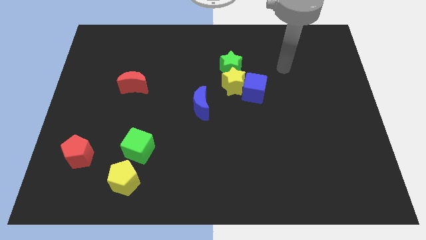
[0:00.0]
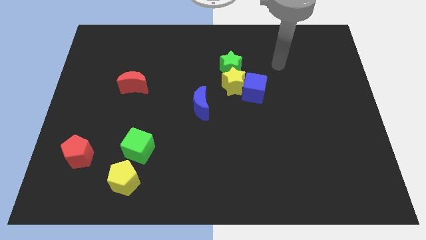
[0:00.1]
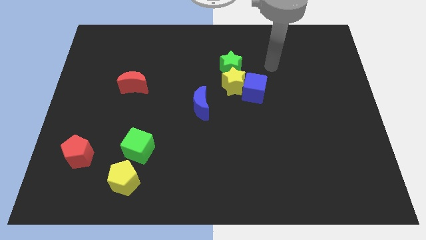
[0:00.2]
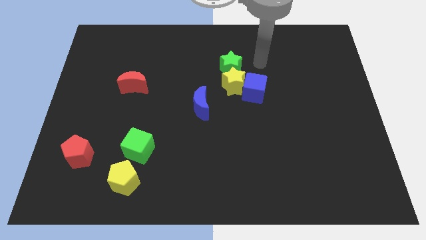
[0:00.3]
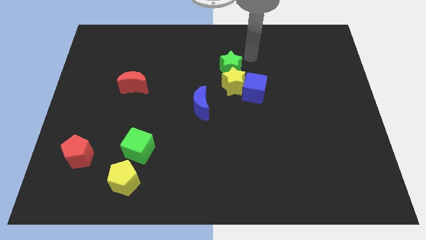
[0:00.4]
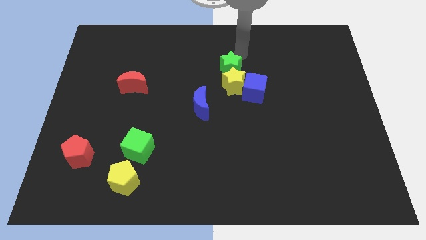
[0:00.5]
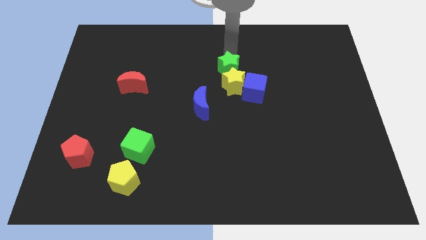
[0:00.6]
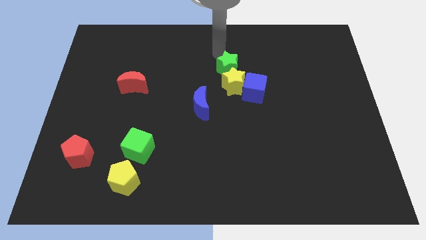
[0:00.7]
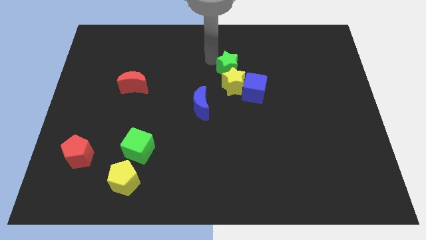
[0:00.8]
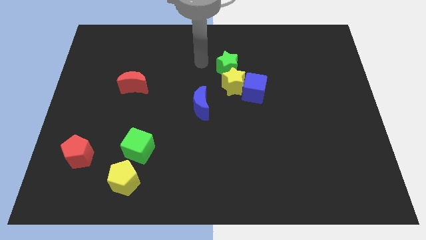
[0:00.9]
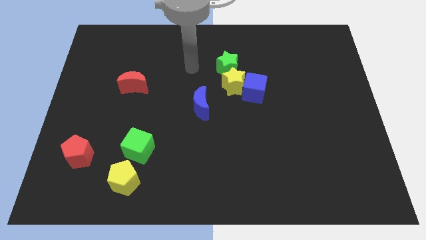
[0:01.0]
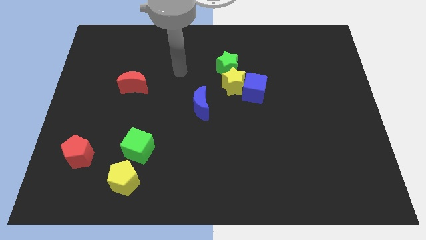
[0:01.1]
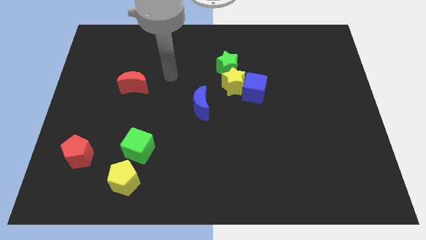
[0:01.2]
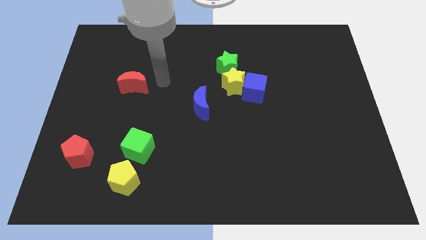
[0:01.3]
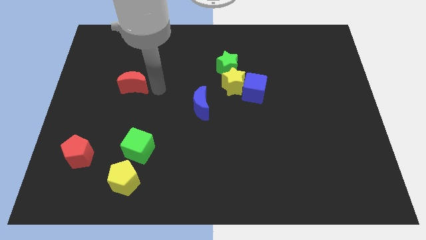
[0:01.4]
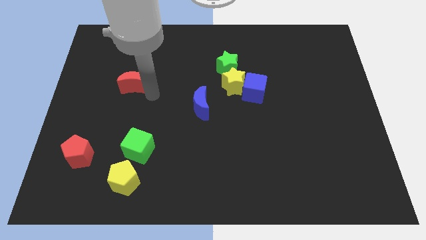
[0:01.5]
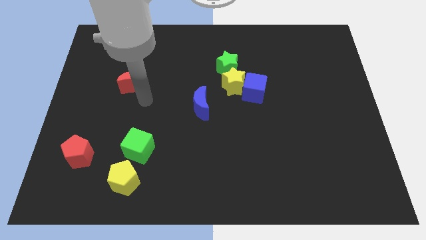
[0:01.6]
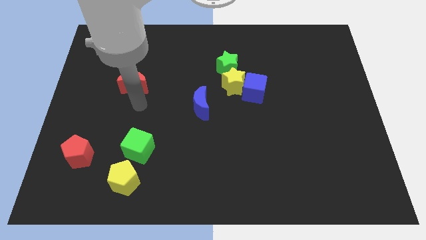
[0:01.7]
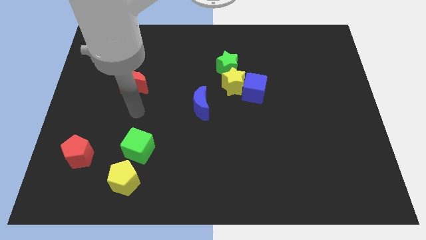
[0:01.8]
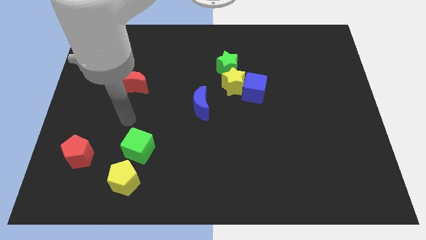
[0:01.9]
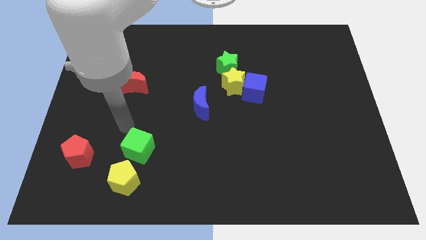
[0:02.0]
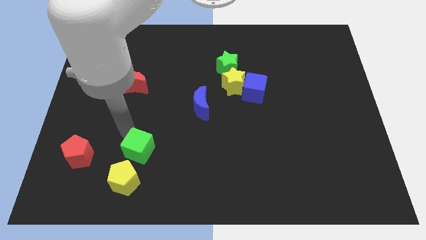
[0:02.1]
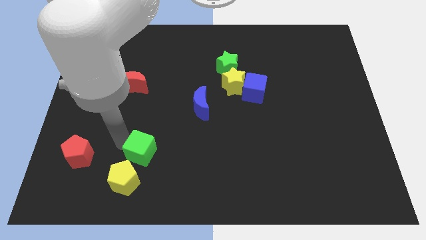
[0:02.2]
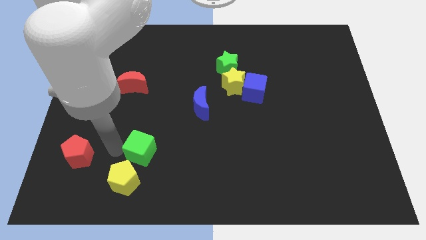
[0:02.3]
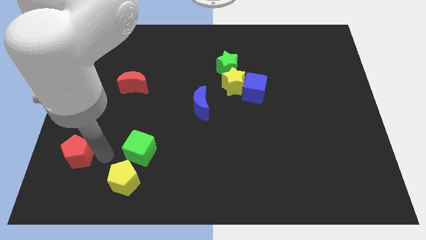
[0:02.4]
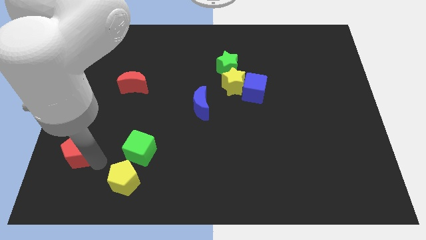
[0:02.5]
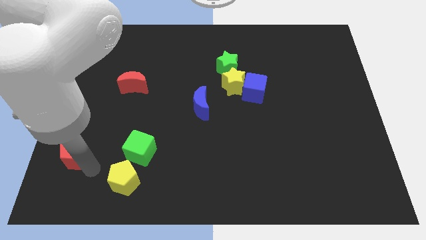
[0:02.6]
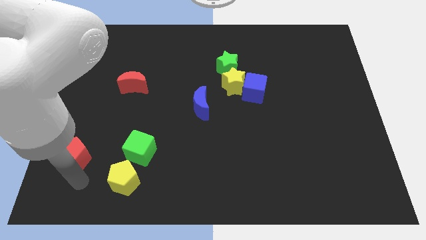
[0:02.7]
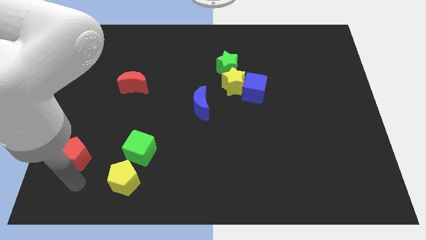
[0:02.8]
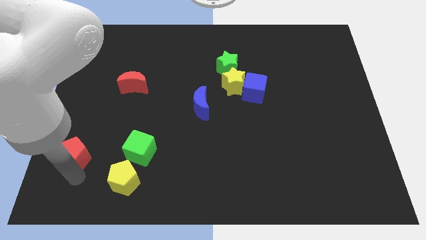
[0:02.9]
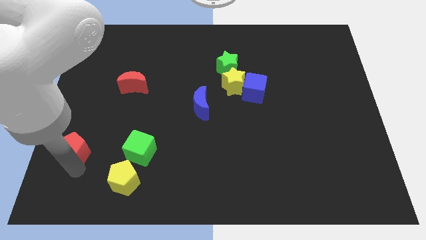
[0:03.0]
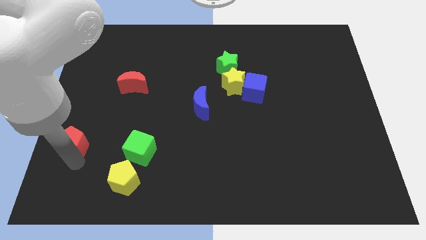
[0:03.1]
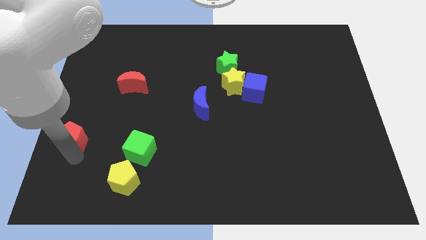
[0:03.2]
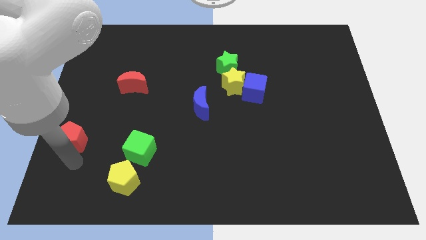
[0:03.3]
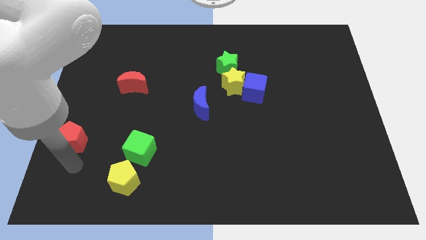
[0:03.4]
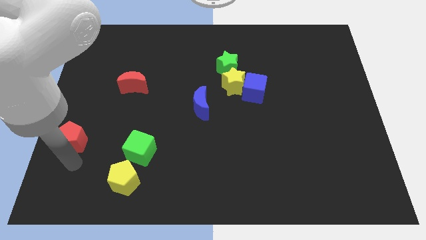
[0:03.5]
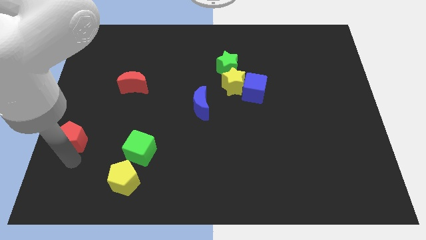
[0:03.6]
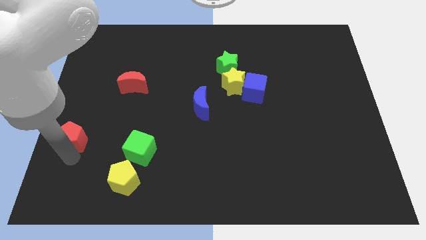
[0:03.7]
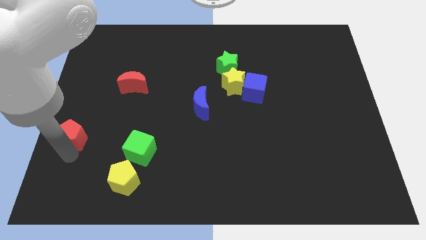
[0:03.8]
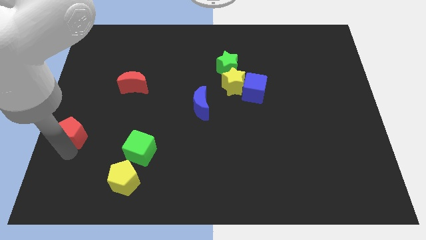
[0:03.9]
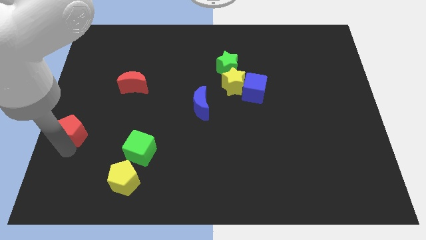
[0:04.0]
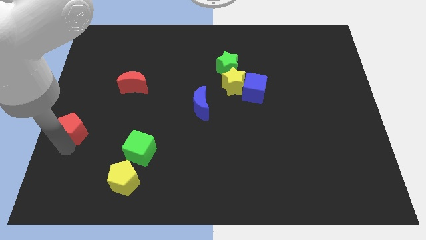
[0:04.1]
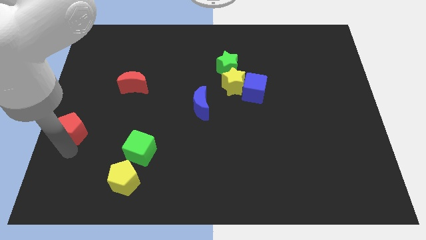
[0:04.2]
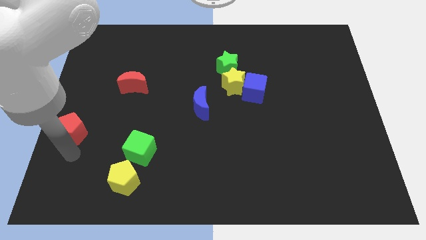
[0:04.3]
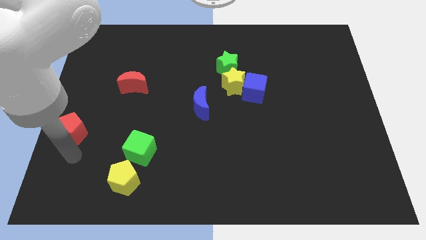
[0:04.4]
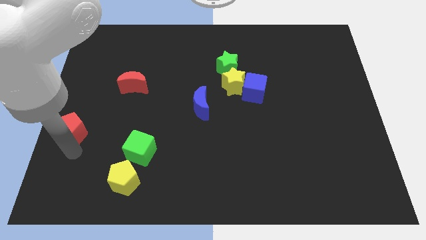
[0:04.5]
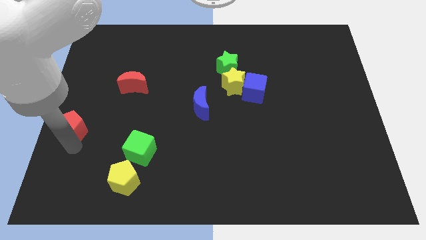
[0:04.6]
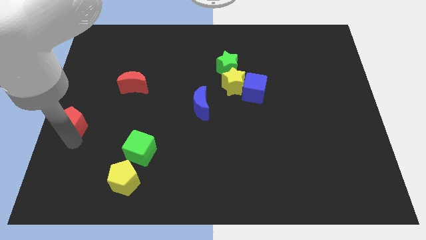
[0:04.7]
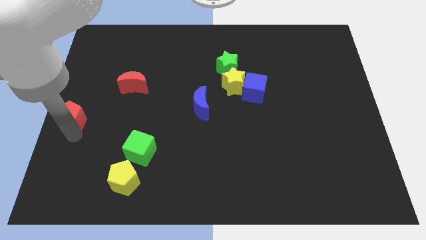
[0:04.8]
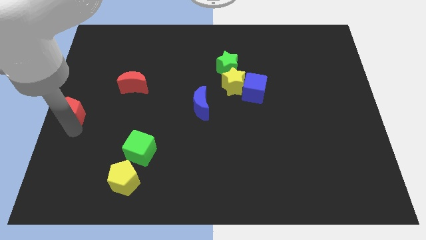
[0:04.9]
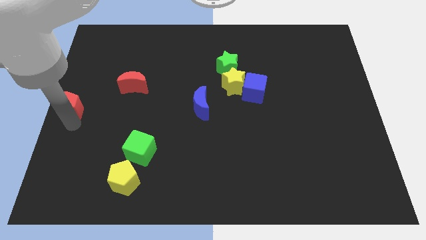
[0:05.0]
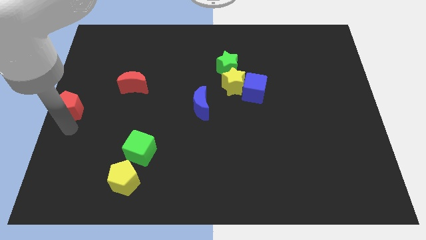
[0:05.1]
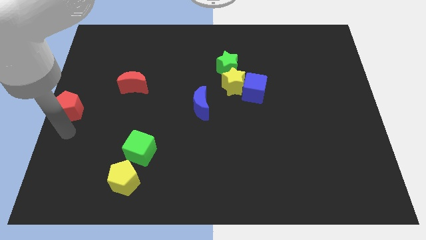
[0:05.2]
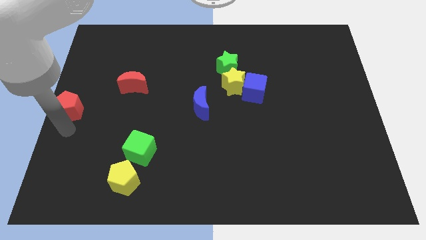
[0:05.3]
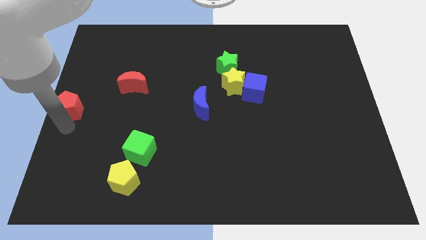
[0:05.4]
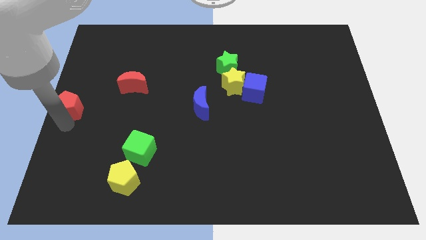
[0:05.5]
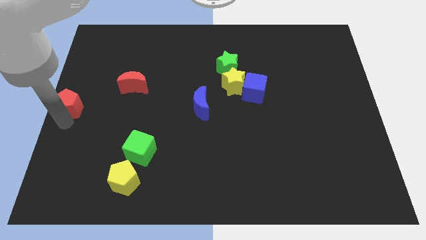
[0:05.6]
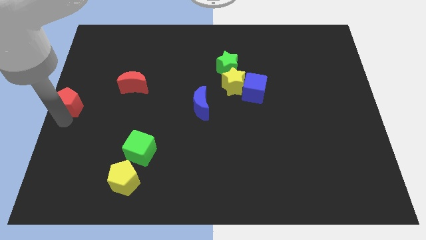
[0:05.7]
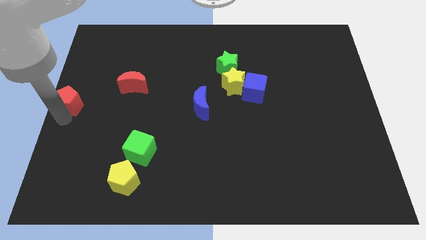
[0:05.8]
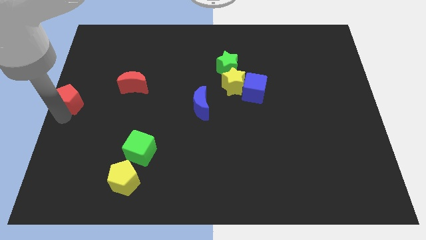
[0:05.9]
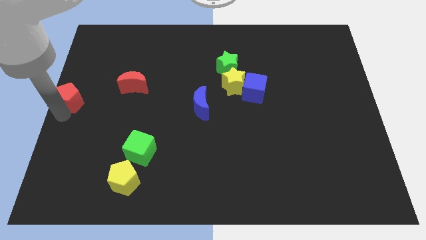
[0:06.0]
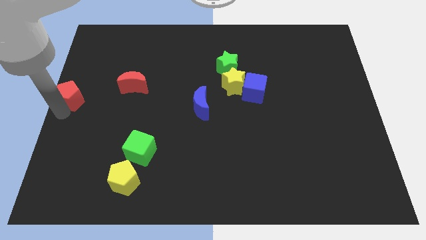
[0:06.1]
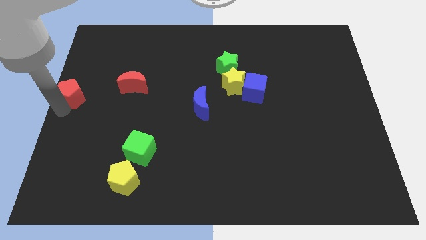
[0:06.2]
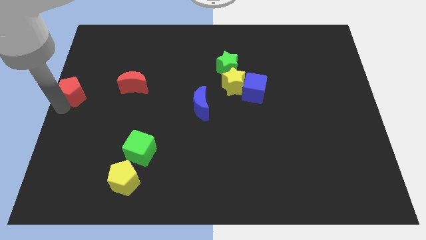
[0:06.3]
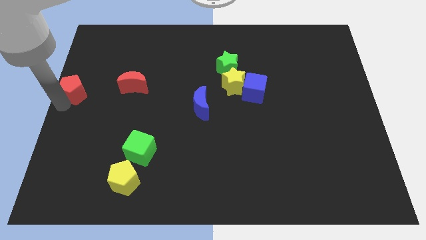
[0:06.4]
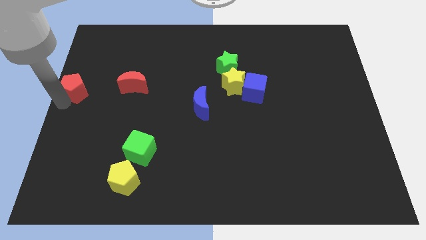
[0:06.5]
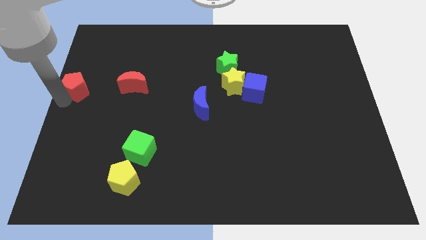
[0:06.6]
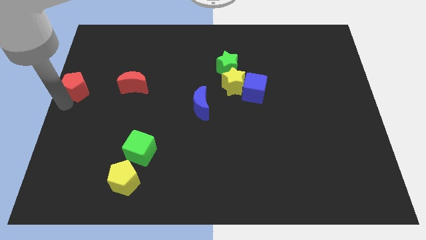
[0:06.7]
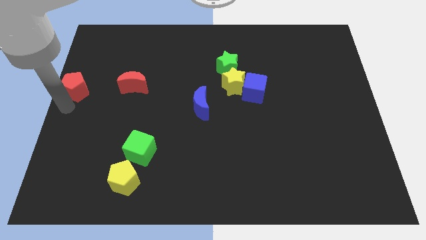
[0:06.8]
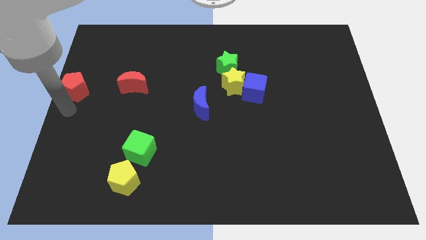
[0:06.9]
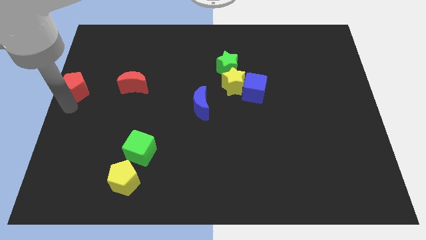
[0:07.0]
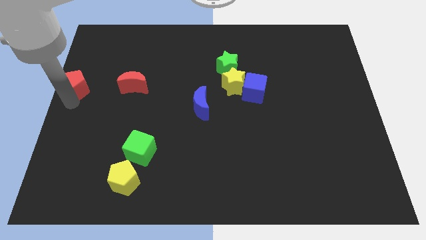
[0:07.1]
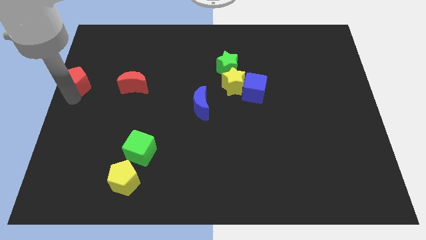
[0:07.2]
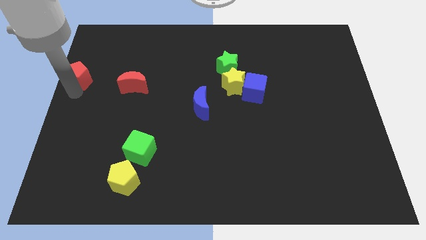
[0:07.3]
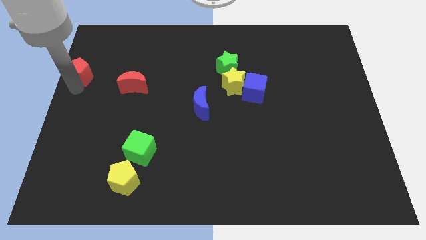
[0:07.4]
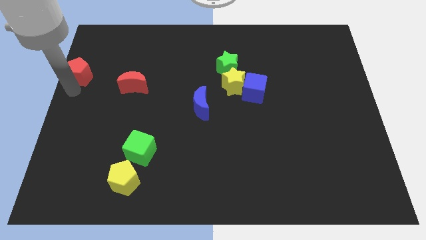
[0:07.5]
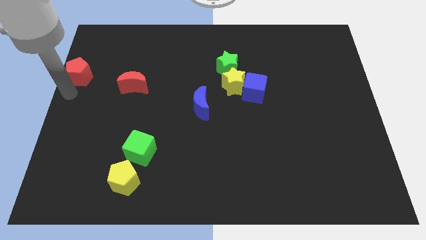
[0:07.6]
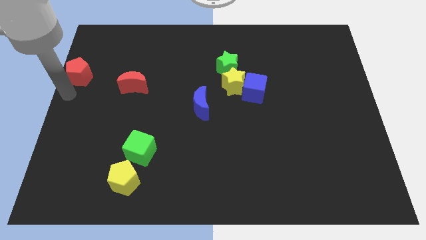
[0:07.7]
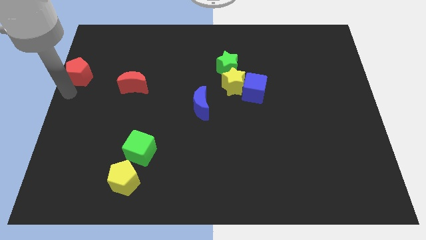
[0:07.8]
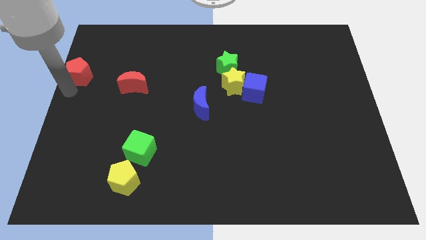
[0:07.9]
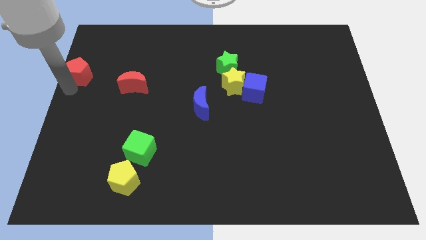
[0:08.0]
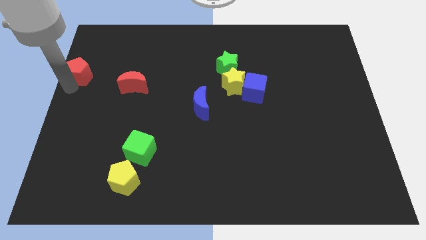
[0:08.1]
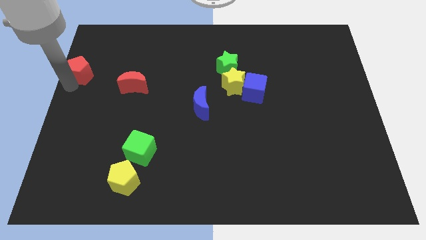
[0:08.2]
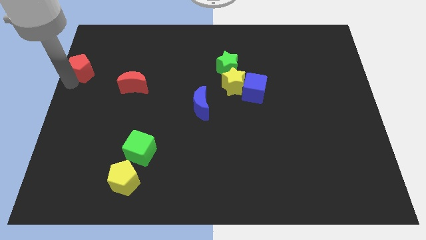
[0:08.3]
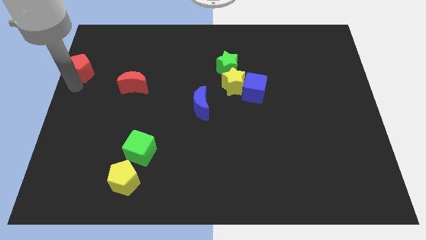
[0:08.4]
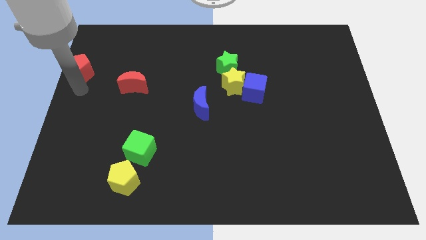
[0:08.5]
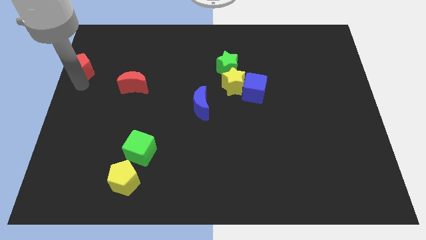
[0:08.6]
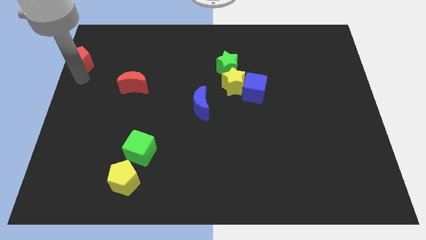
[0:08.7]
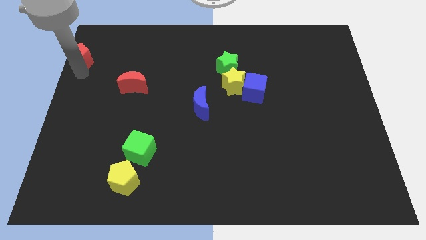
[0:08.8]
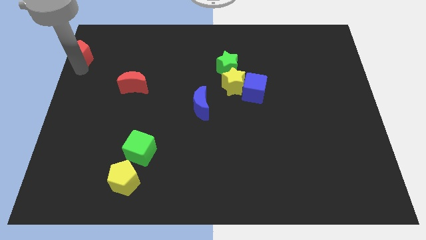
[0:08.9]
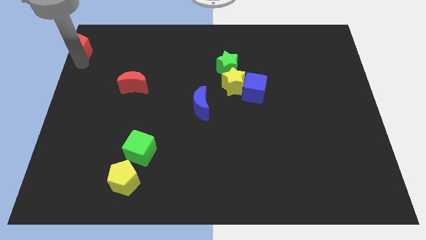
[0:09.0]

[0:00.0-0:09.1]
put the red pentagon to the top left of the board
